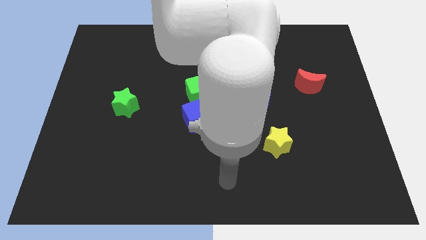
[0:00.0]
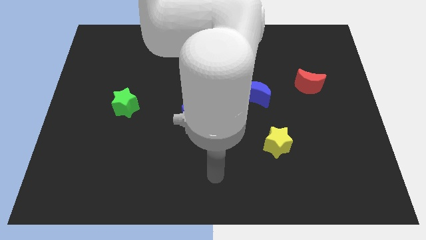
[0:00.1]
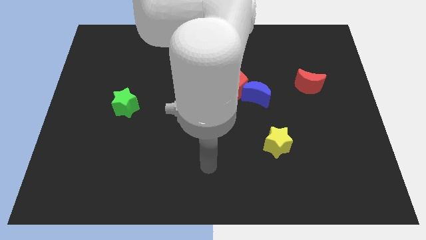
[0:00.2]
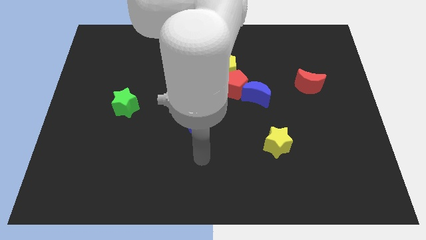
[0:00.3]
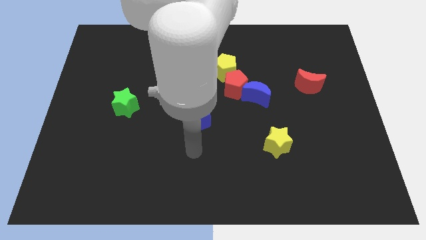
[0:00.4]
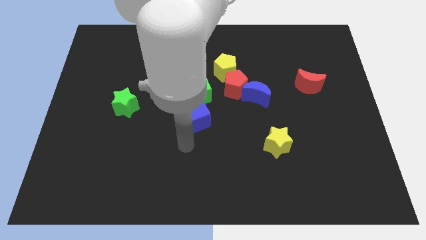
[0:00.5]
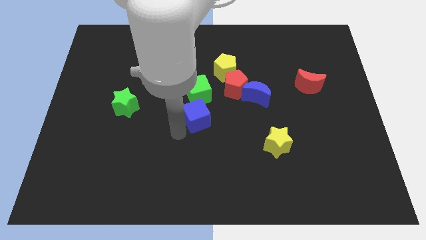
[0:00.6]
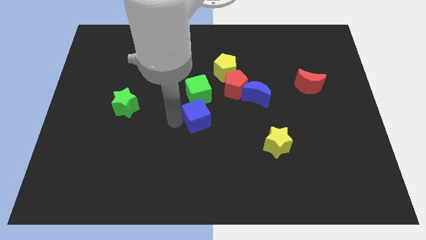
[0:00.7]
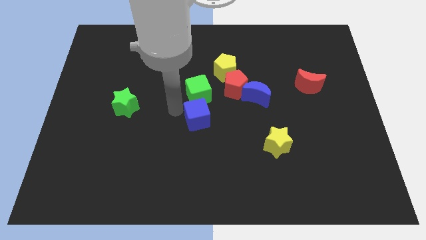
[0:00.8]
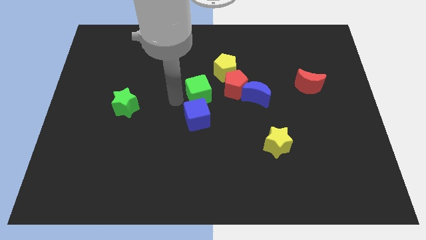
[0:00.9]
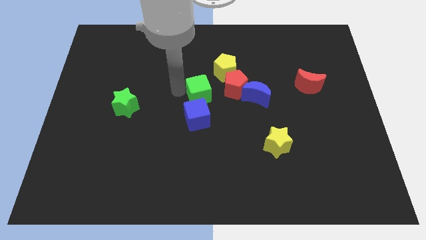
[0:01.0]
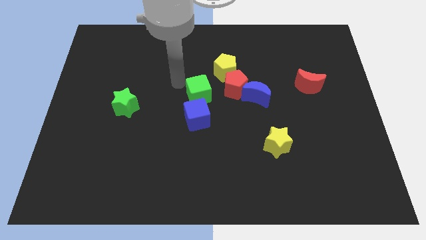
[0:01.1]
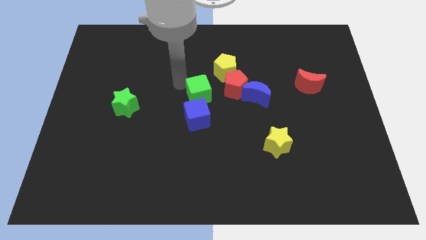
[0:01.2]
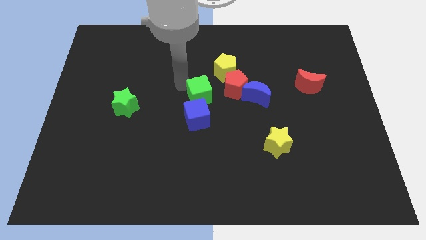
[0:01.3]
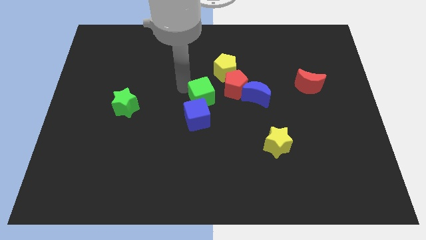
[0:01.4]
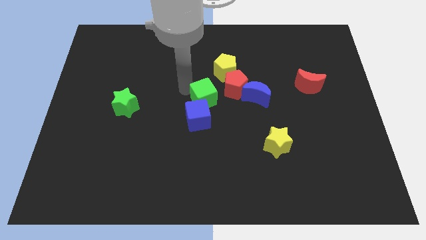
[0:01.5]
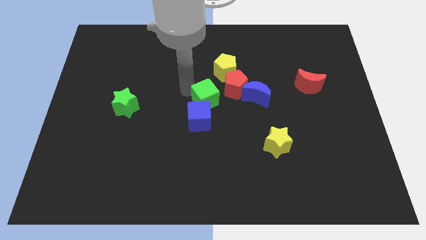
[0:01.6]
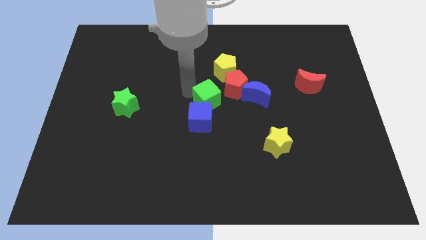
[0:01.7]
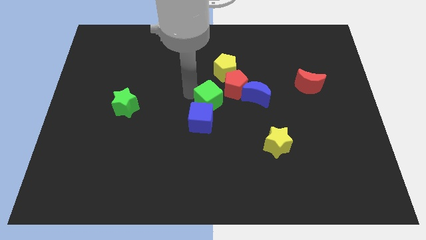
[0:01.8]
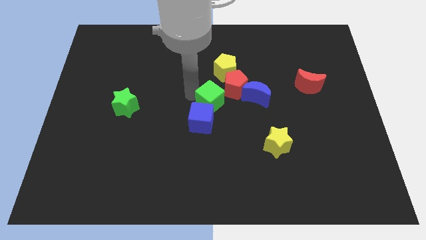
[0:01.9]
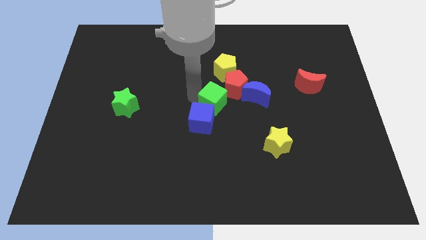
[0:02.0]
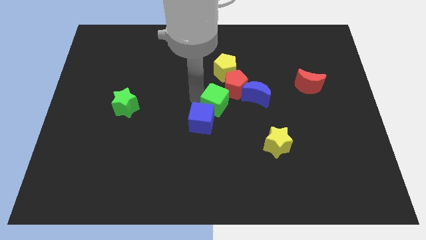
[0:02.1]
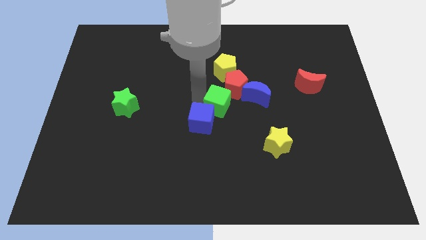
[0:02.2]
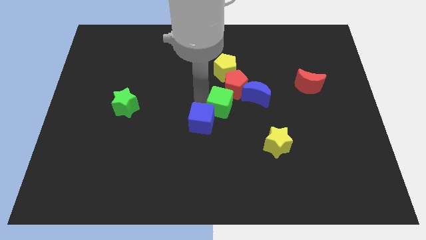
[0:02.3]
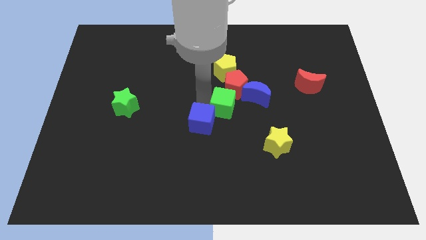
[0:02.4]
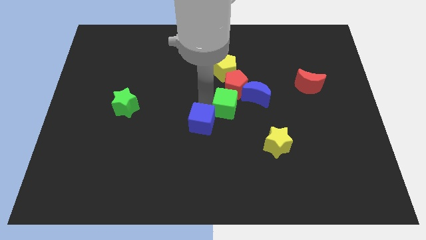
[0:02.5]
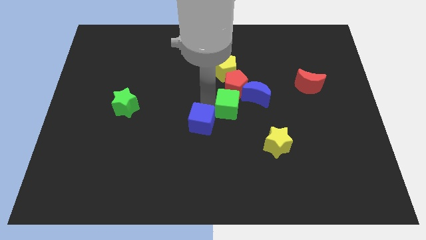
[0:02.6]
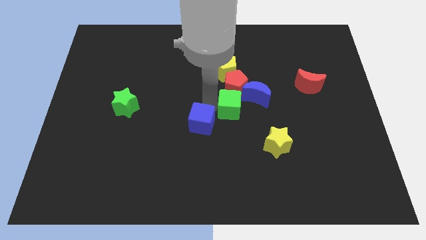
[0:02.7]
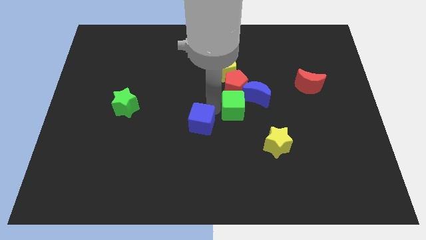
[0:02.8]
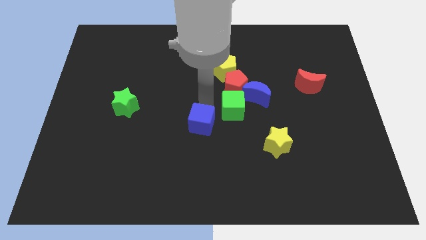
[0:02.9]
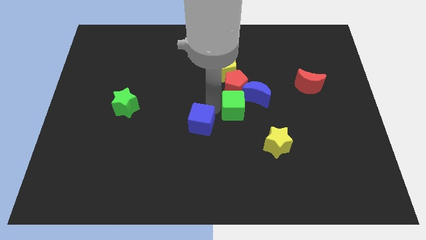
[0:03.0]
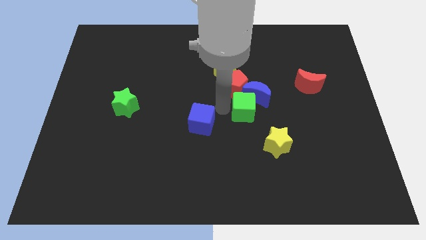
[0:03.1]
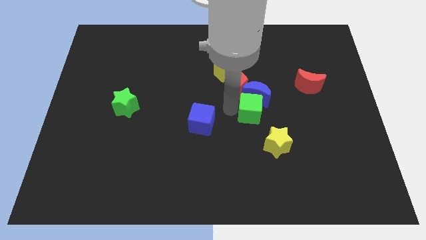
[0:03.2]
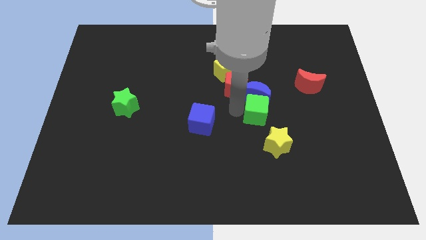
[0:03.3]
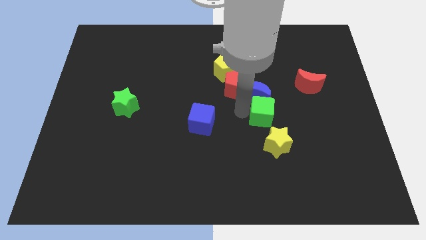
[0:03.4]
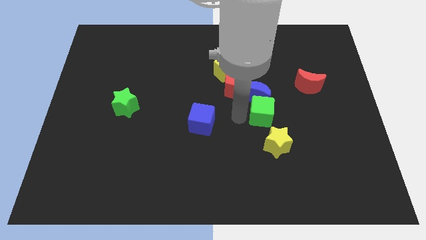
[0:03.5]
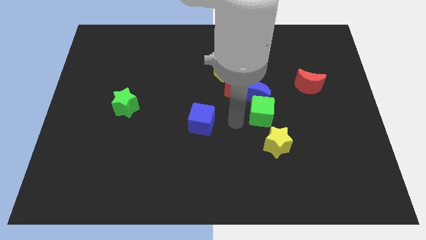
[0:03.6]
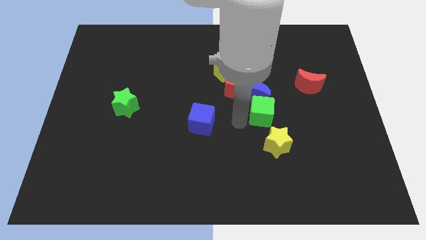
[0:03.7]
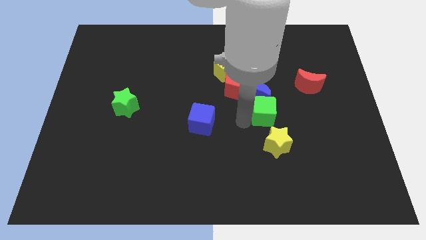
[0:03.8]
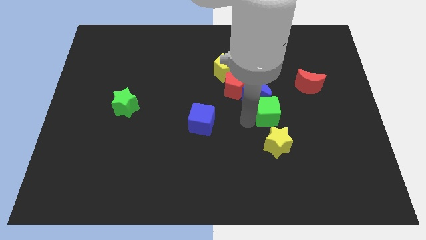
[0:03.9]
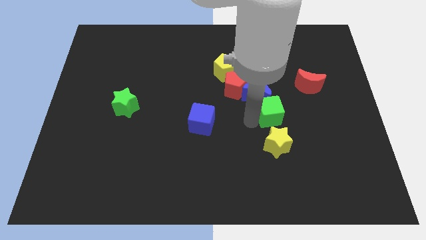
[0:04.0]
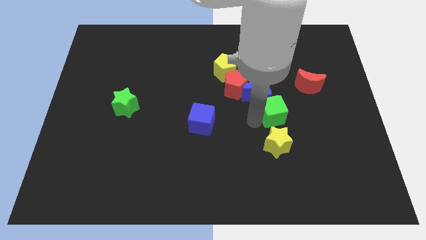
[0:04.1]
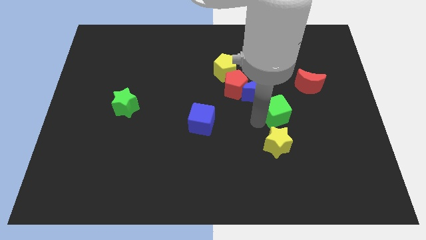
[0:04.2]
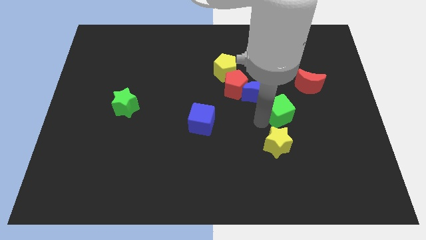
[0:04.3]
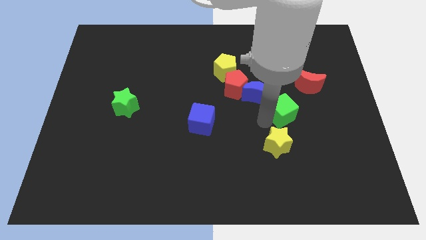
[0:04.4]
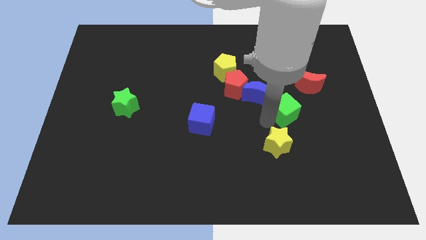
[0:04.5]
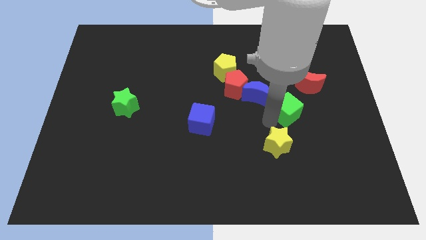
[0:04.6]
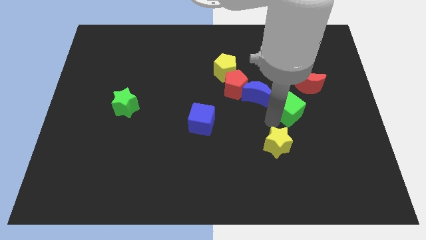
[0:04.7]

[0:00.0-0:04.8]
push the green cube right

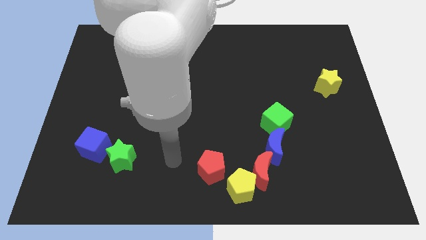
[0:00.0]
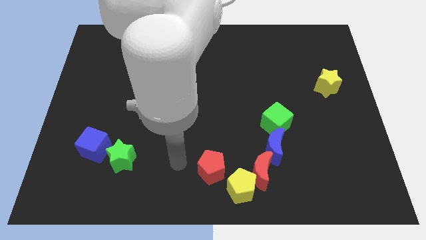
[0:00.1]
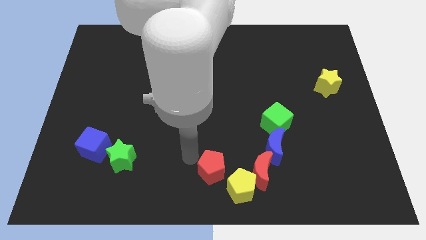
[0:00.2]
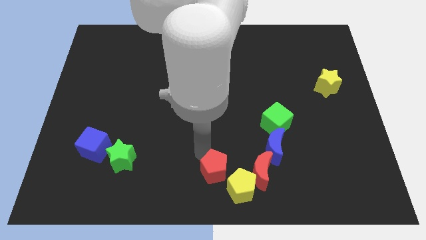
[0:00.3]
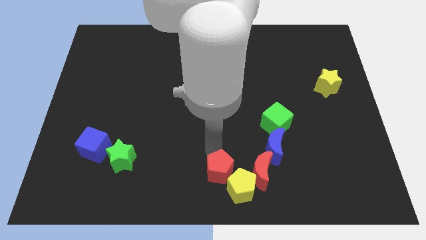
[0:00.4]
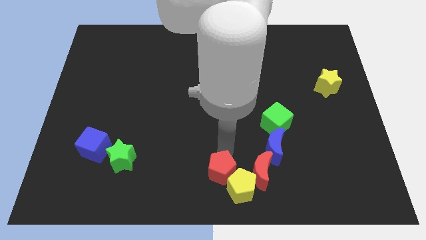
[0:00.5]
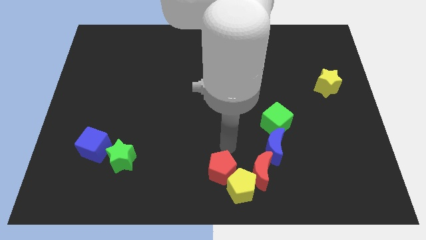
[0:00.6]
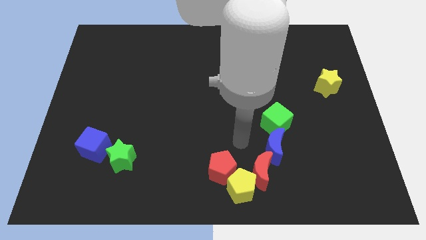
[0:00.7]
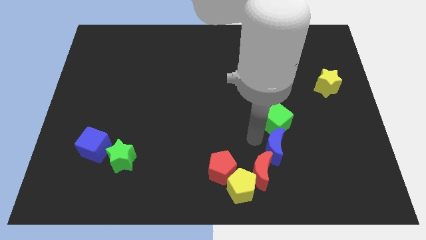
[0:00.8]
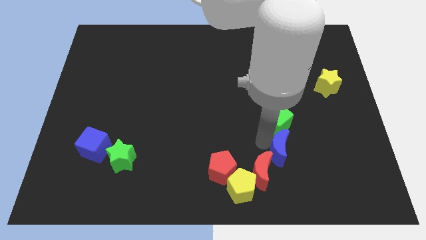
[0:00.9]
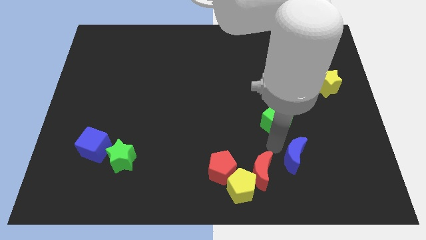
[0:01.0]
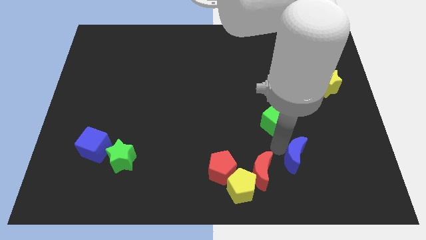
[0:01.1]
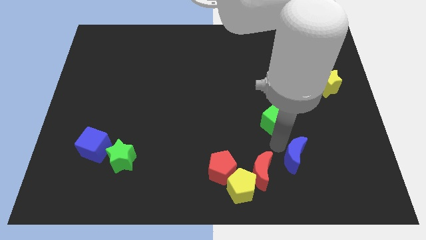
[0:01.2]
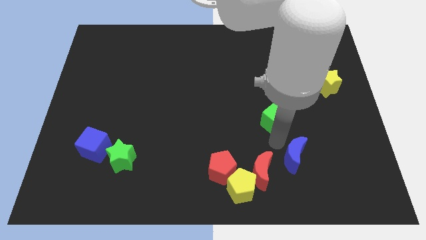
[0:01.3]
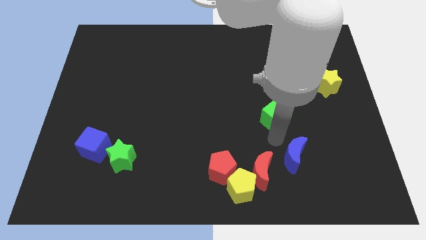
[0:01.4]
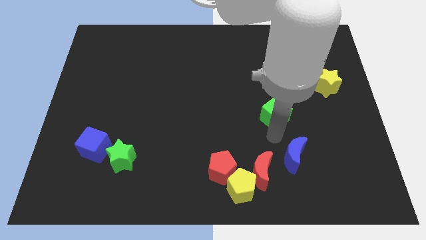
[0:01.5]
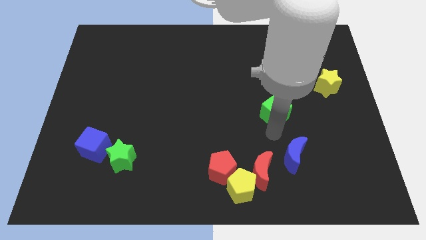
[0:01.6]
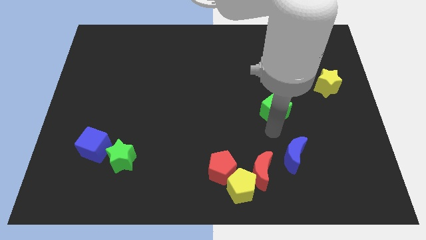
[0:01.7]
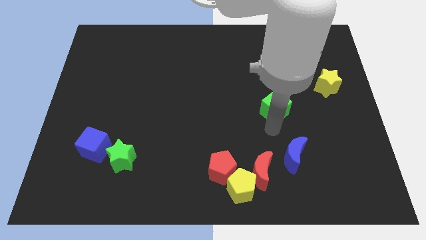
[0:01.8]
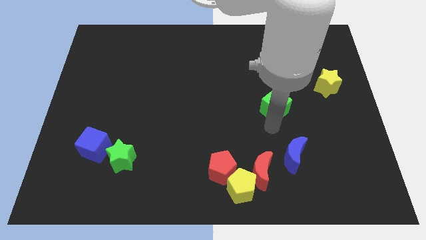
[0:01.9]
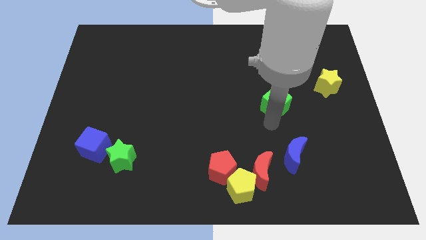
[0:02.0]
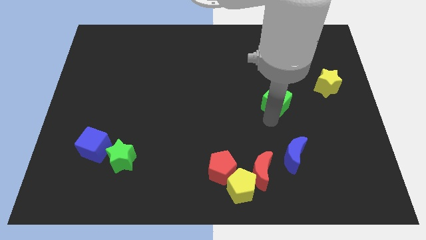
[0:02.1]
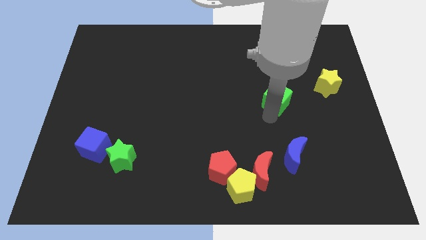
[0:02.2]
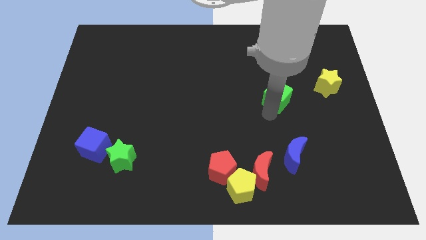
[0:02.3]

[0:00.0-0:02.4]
push the green cube upwards a little

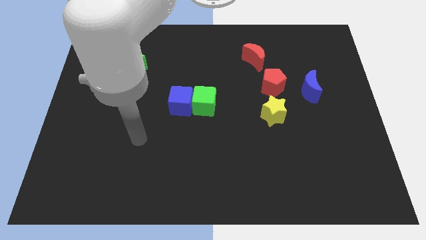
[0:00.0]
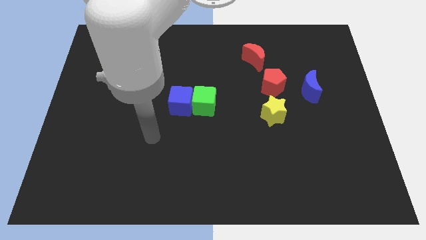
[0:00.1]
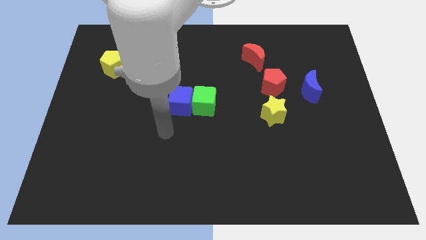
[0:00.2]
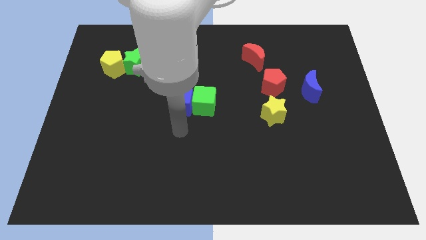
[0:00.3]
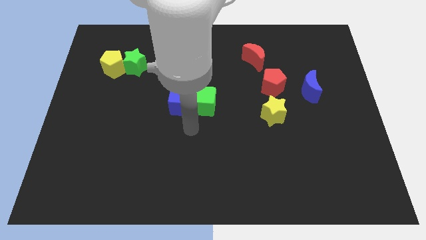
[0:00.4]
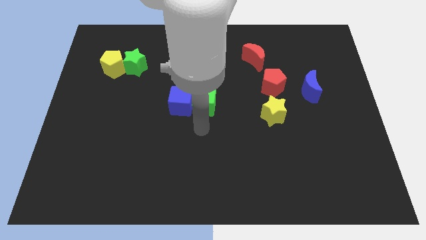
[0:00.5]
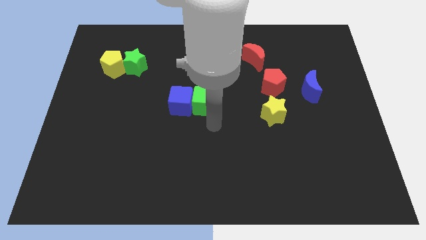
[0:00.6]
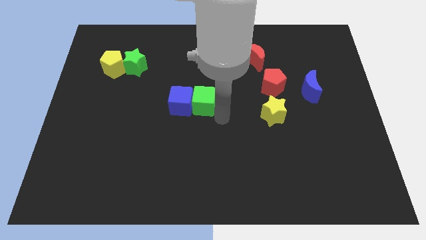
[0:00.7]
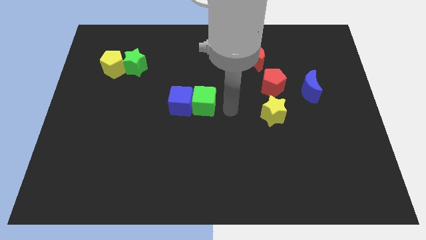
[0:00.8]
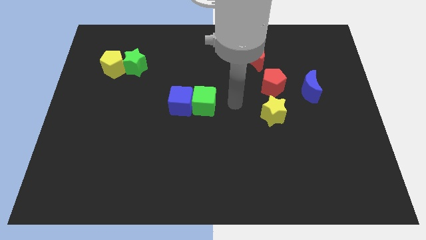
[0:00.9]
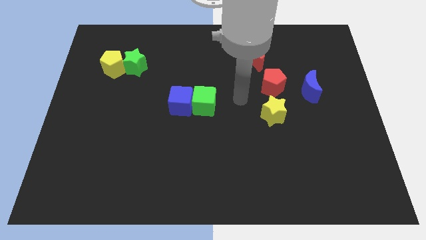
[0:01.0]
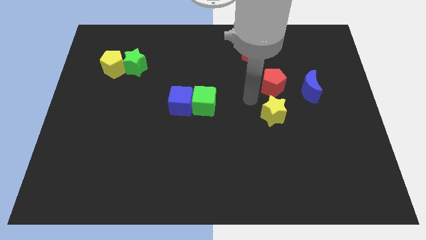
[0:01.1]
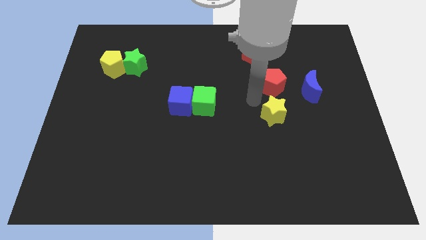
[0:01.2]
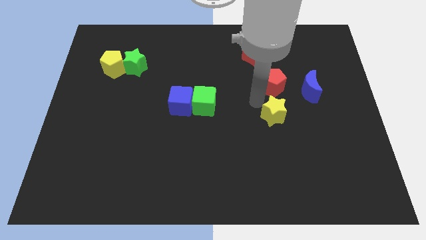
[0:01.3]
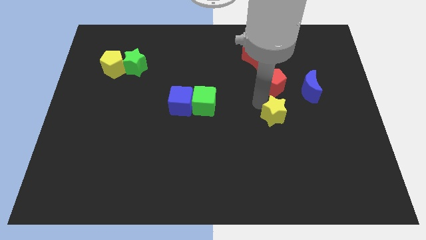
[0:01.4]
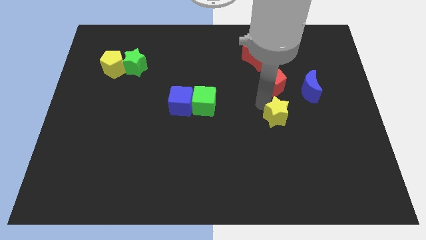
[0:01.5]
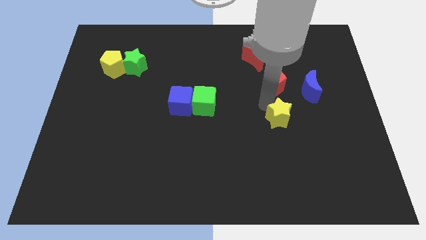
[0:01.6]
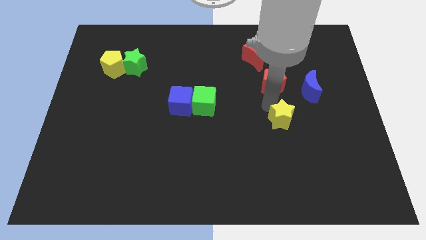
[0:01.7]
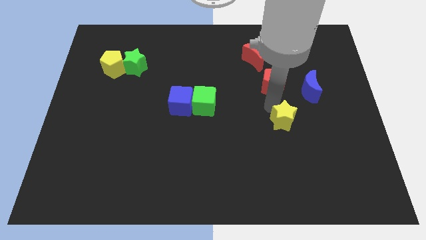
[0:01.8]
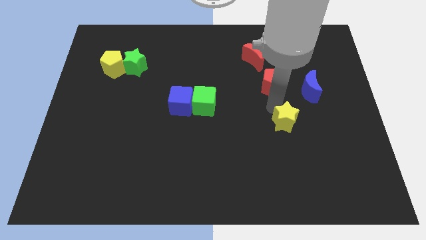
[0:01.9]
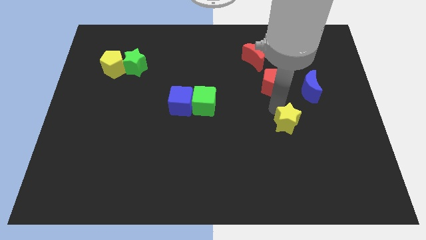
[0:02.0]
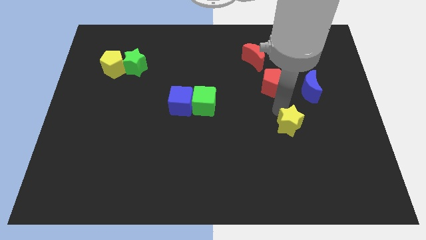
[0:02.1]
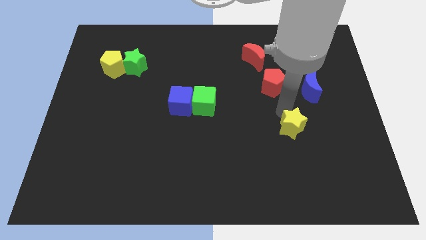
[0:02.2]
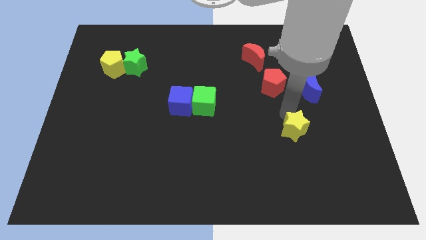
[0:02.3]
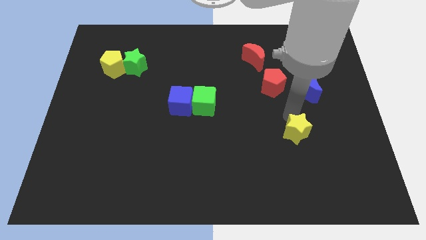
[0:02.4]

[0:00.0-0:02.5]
push the yellow star somewhat diagonally downwards and to the right
